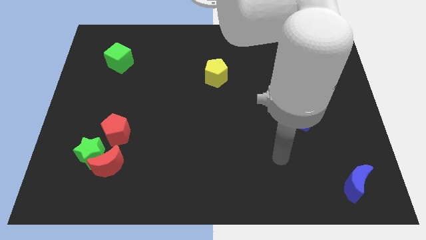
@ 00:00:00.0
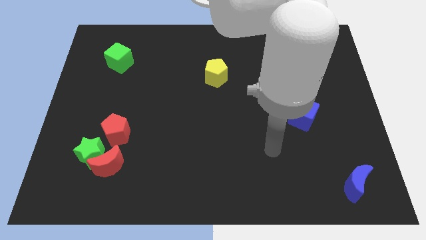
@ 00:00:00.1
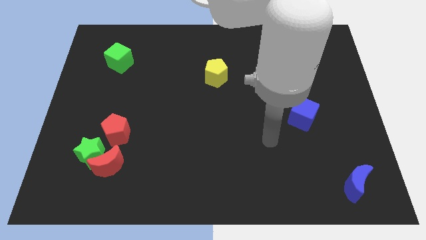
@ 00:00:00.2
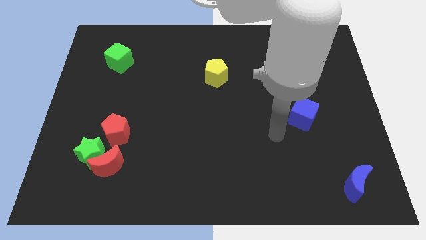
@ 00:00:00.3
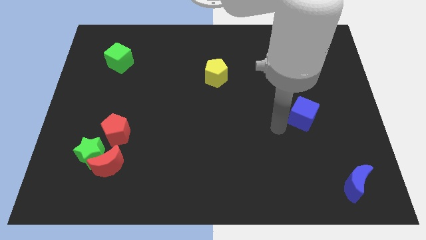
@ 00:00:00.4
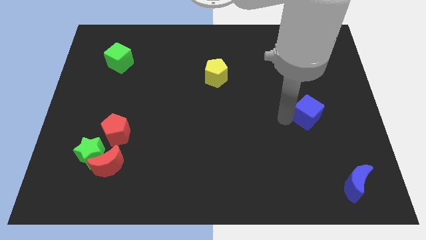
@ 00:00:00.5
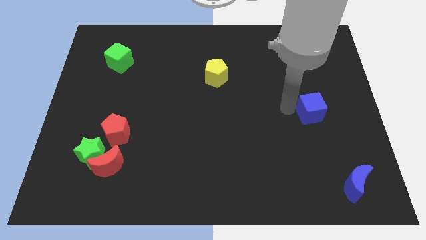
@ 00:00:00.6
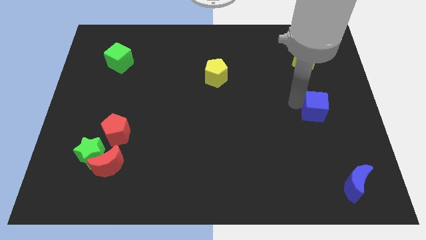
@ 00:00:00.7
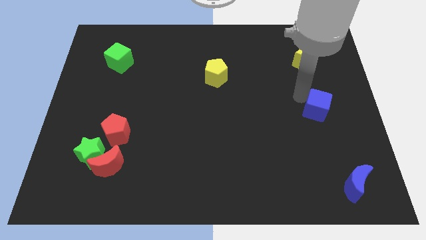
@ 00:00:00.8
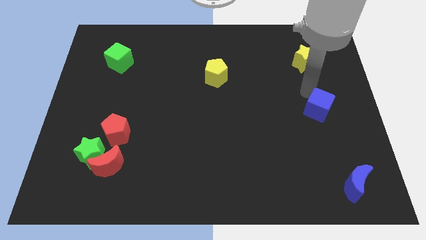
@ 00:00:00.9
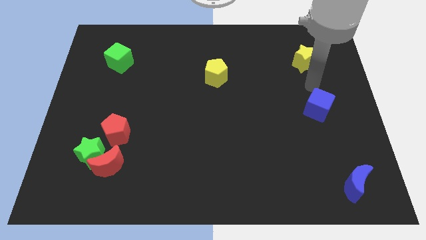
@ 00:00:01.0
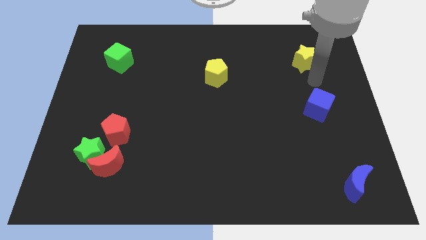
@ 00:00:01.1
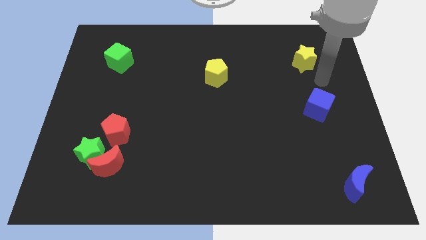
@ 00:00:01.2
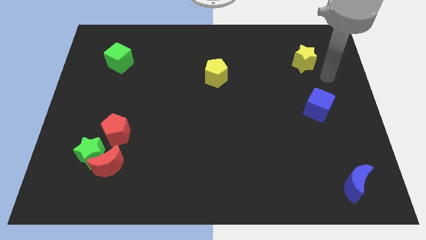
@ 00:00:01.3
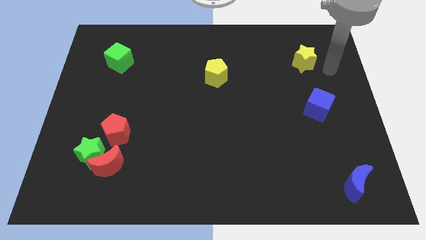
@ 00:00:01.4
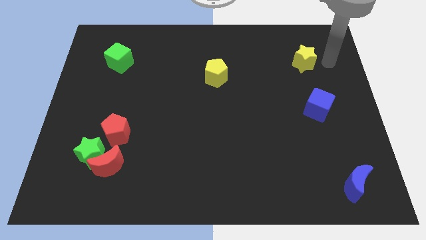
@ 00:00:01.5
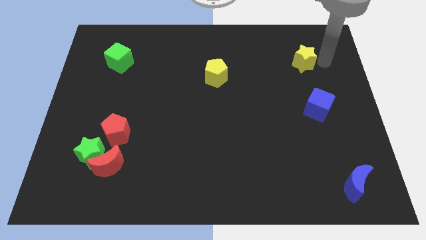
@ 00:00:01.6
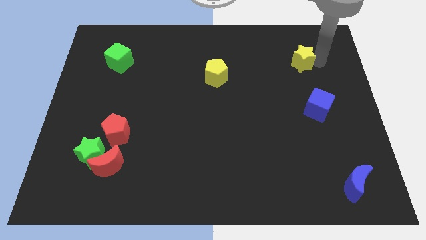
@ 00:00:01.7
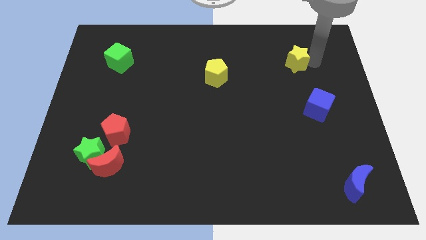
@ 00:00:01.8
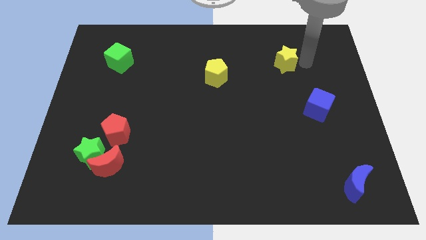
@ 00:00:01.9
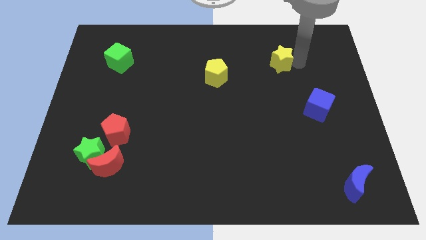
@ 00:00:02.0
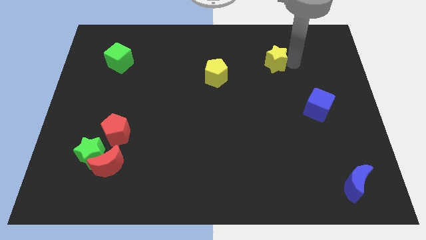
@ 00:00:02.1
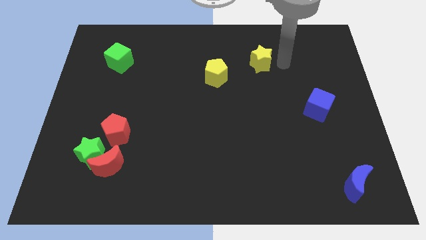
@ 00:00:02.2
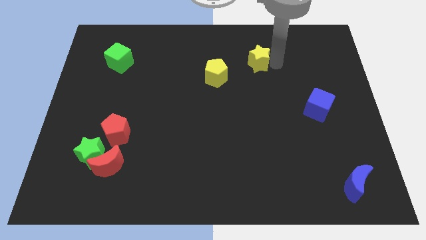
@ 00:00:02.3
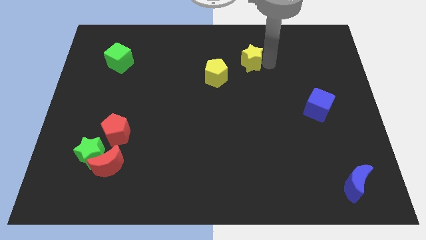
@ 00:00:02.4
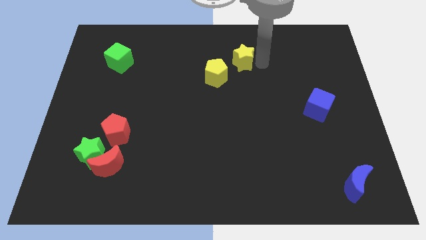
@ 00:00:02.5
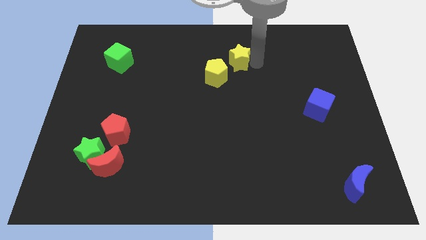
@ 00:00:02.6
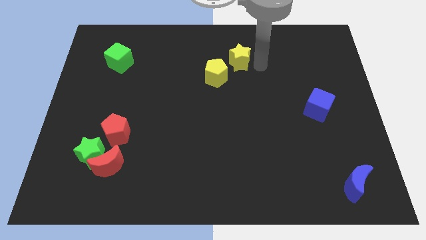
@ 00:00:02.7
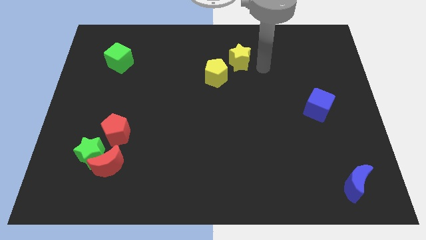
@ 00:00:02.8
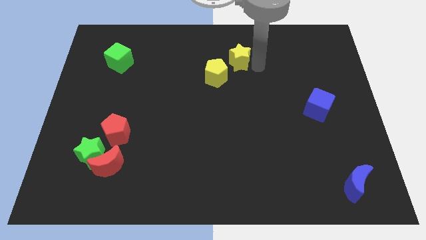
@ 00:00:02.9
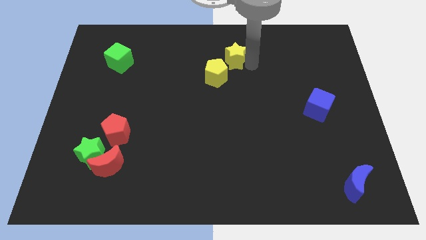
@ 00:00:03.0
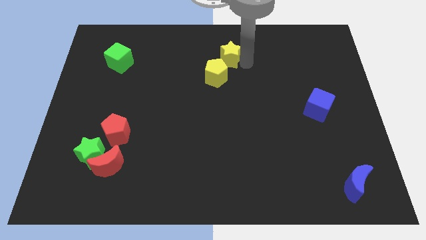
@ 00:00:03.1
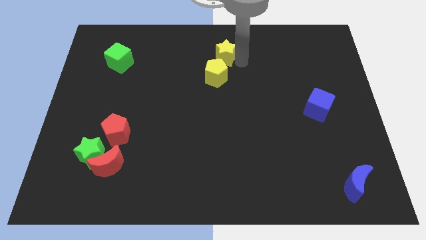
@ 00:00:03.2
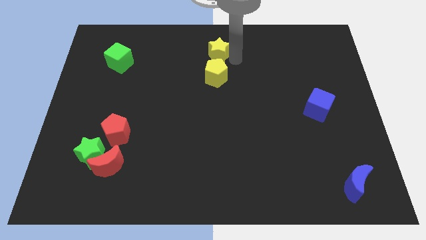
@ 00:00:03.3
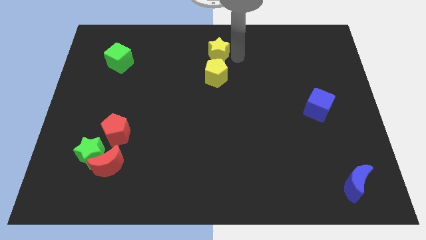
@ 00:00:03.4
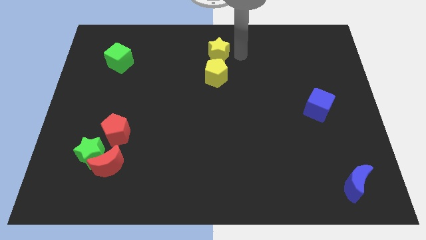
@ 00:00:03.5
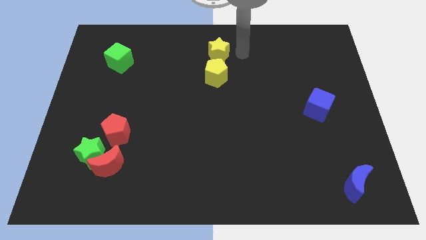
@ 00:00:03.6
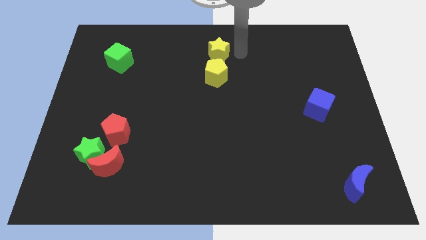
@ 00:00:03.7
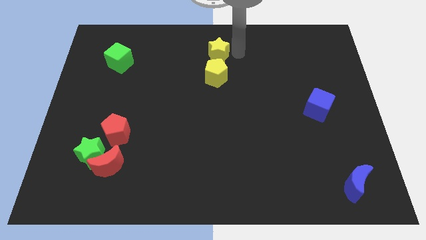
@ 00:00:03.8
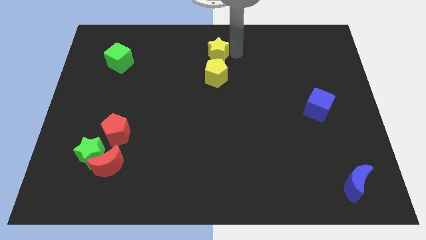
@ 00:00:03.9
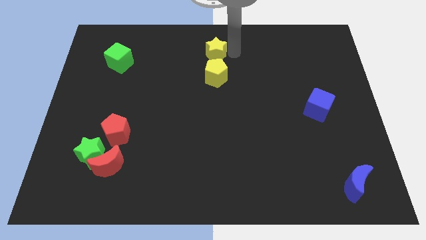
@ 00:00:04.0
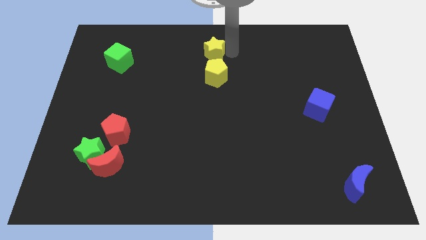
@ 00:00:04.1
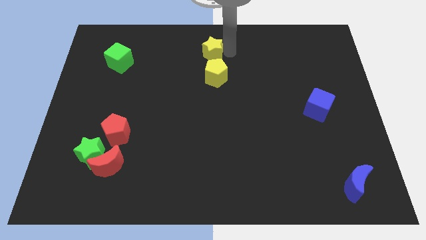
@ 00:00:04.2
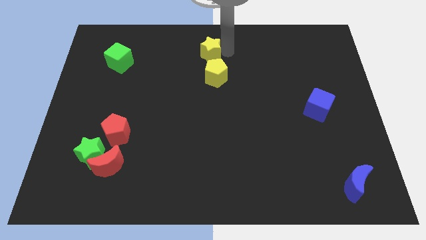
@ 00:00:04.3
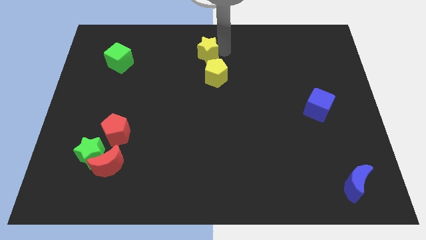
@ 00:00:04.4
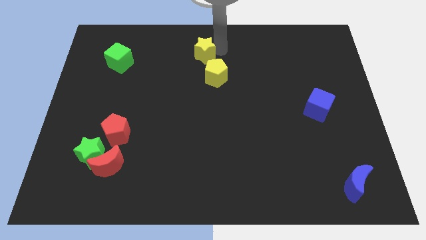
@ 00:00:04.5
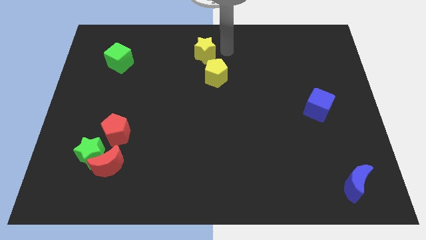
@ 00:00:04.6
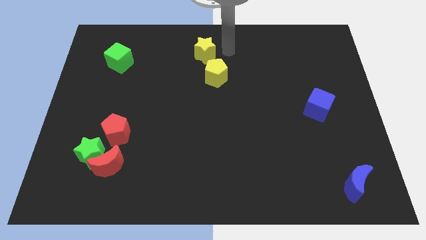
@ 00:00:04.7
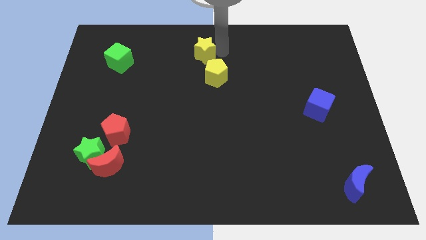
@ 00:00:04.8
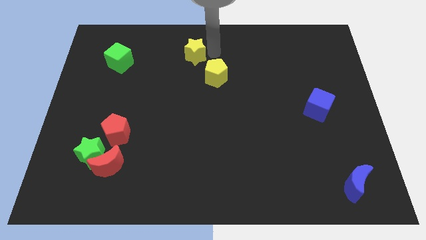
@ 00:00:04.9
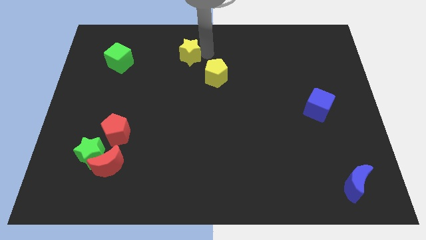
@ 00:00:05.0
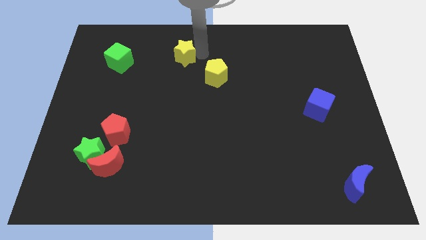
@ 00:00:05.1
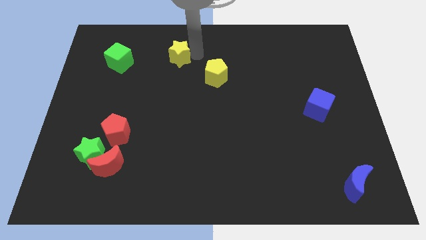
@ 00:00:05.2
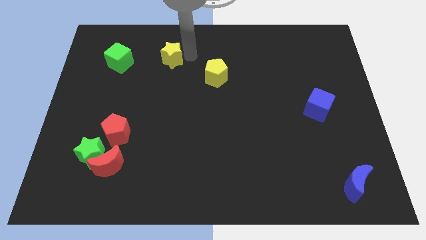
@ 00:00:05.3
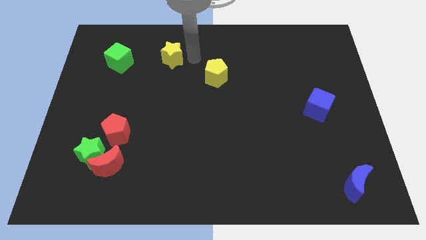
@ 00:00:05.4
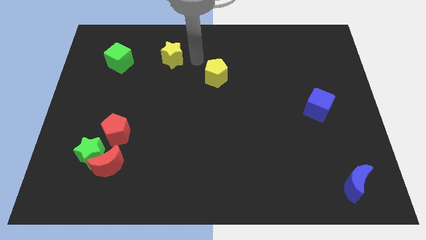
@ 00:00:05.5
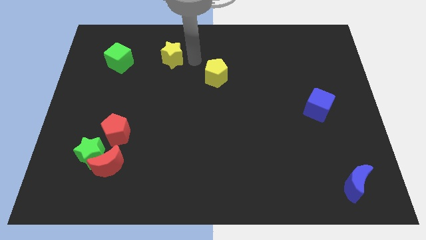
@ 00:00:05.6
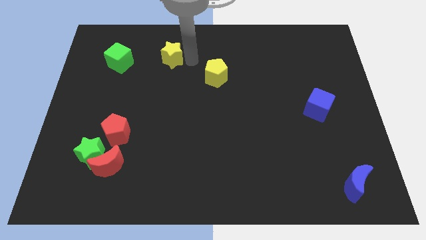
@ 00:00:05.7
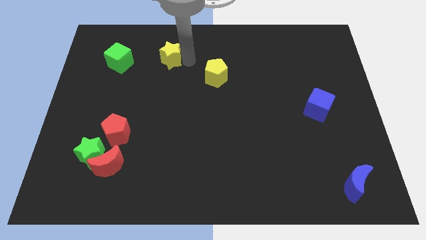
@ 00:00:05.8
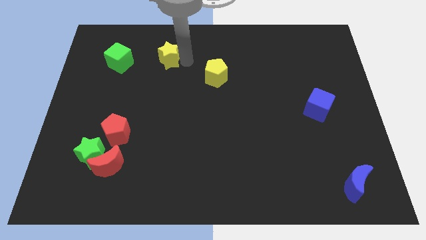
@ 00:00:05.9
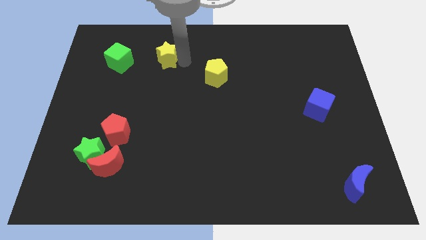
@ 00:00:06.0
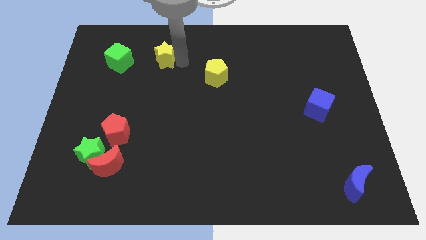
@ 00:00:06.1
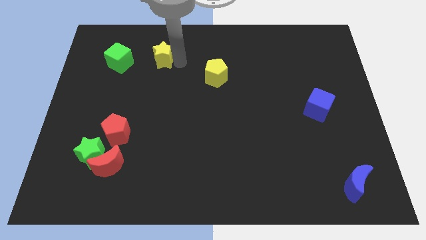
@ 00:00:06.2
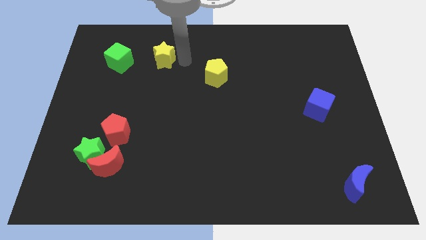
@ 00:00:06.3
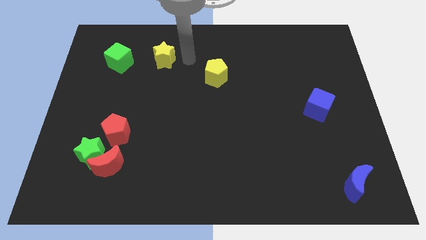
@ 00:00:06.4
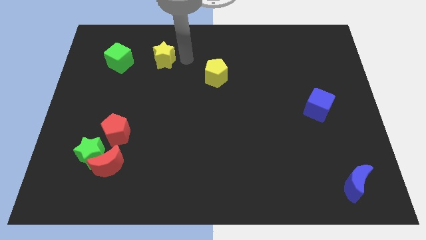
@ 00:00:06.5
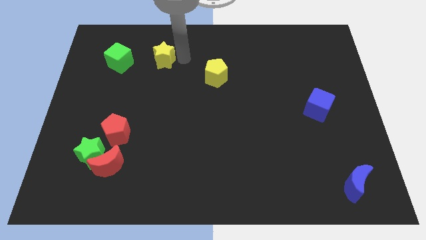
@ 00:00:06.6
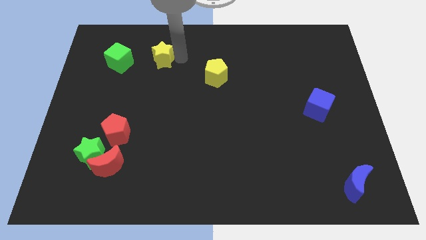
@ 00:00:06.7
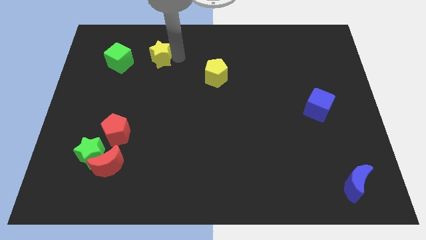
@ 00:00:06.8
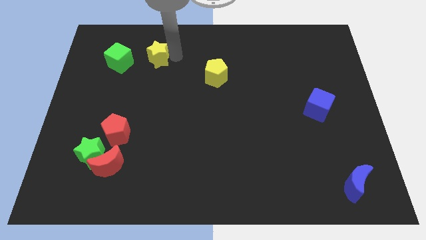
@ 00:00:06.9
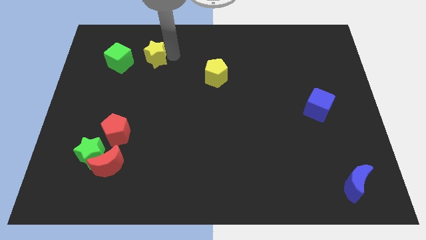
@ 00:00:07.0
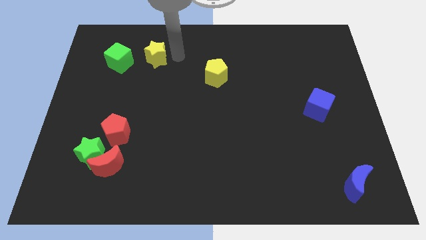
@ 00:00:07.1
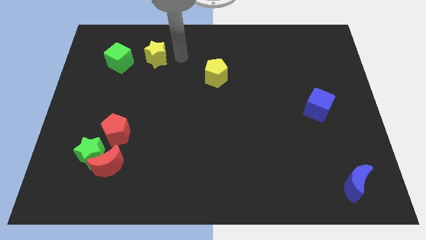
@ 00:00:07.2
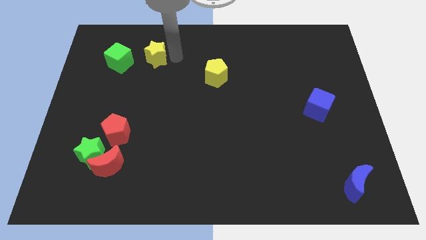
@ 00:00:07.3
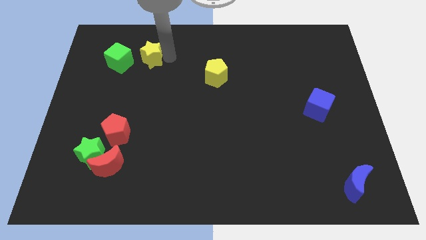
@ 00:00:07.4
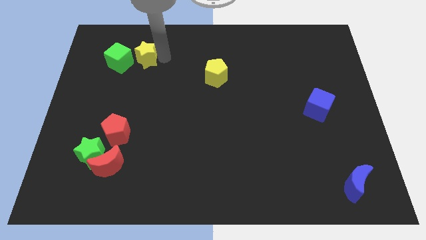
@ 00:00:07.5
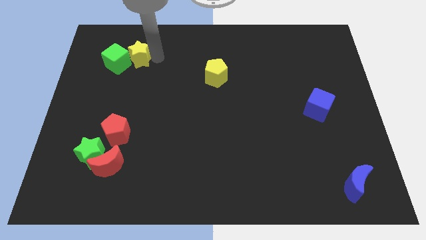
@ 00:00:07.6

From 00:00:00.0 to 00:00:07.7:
slide the yellow star close to the green cube
